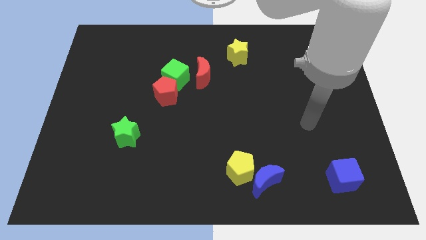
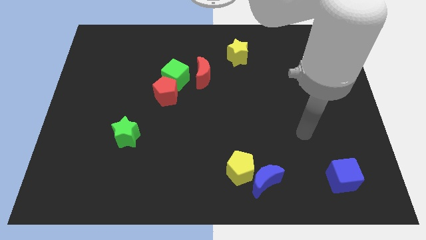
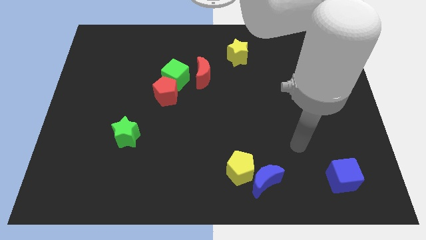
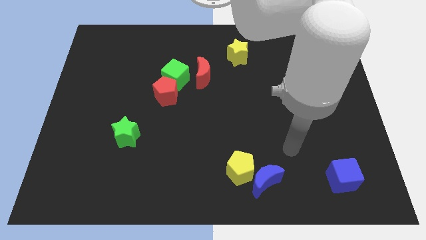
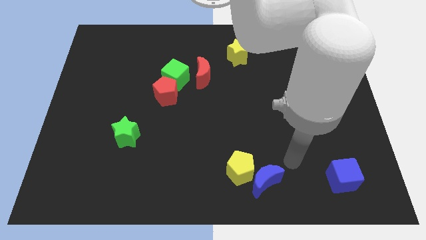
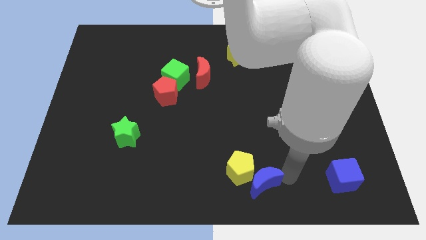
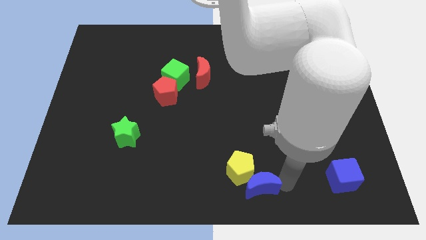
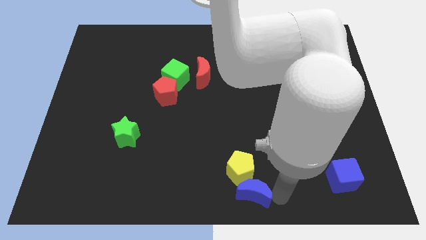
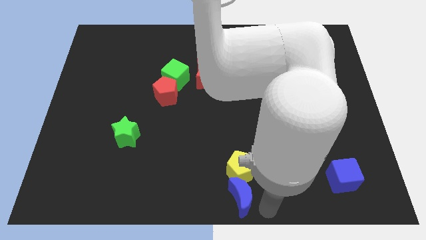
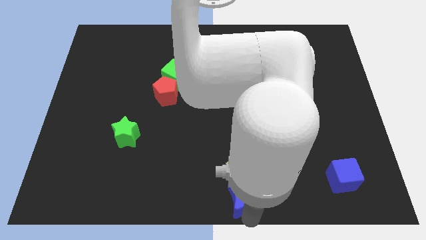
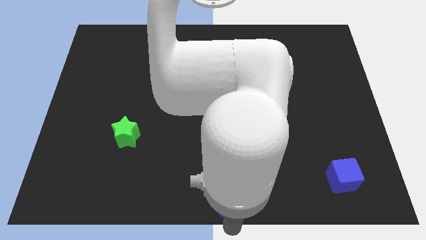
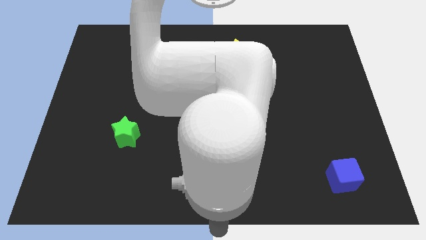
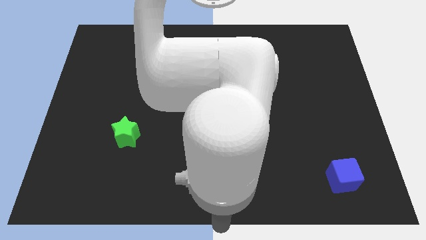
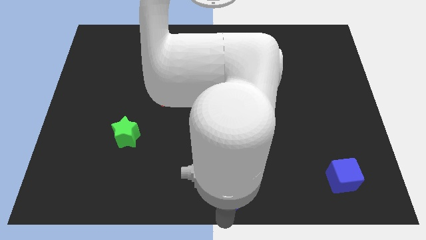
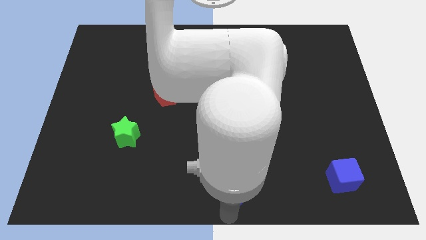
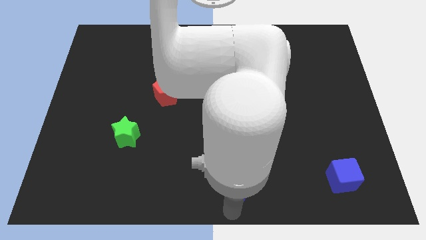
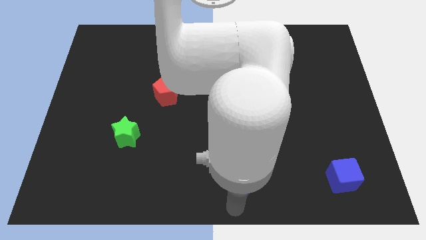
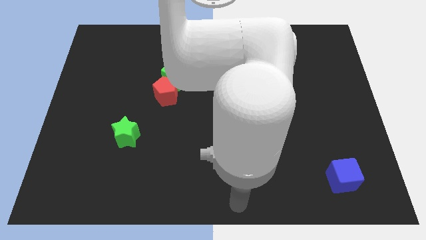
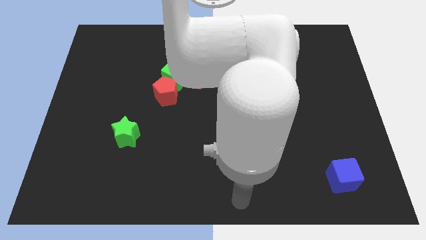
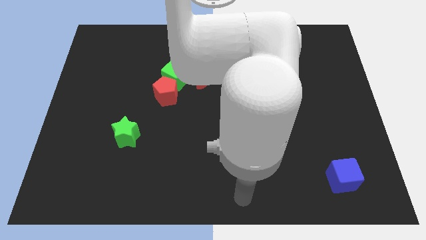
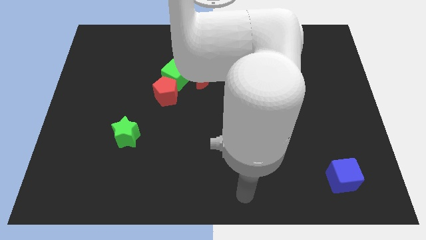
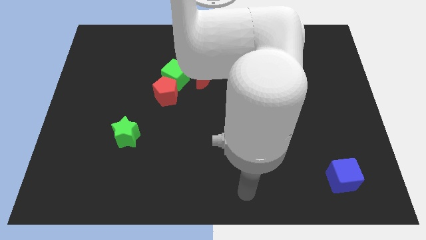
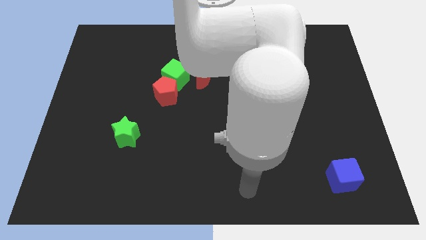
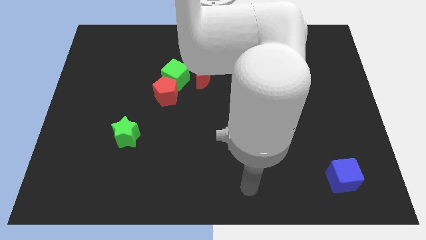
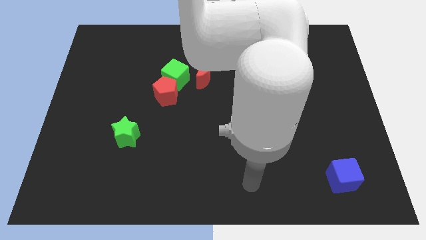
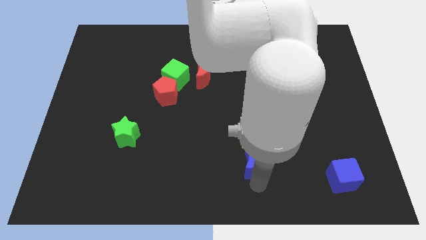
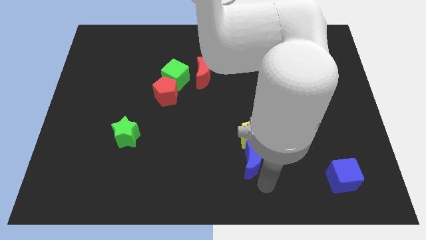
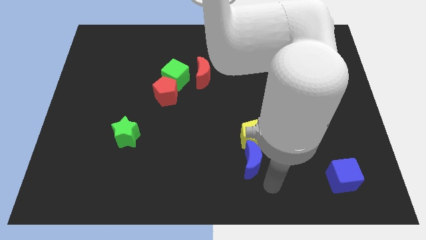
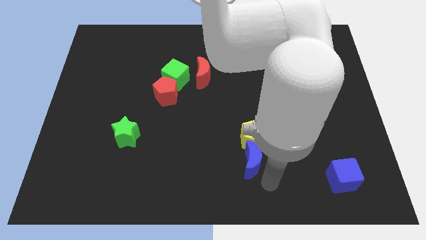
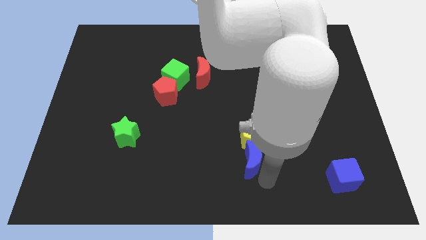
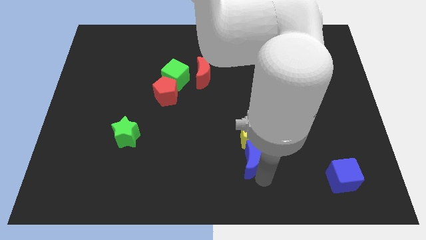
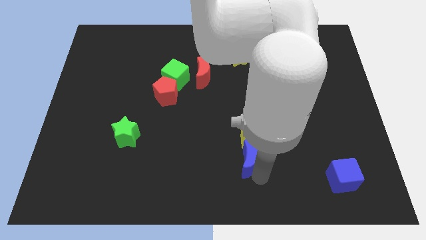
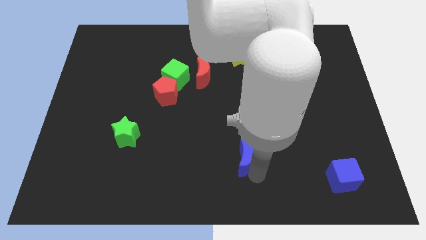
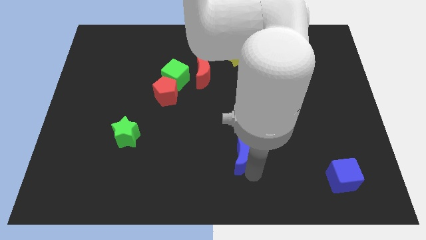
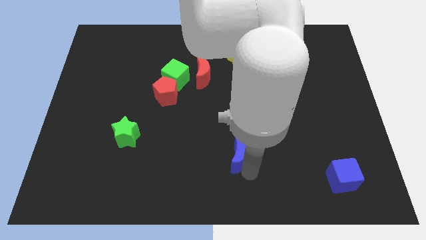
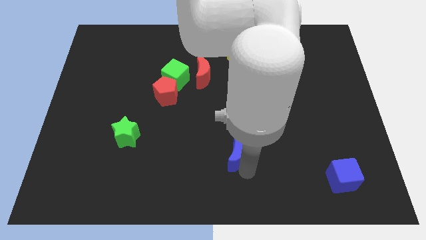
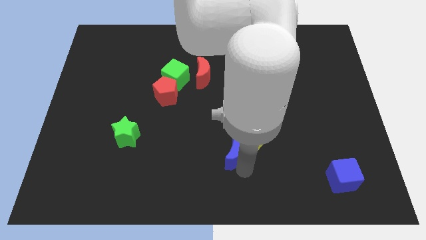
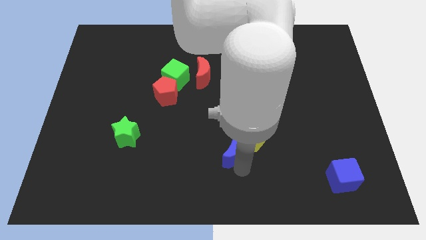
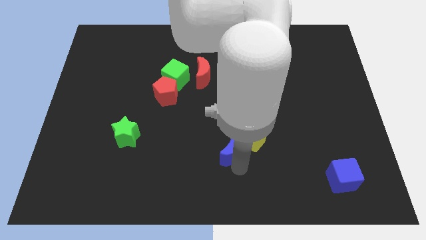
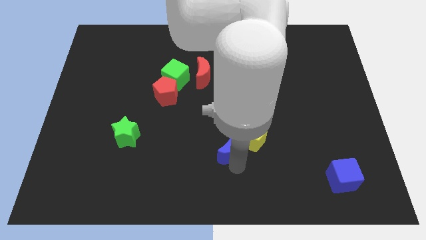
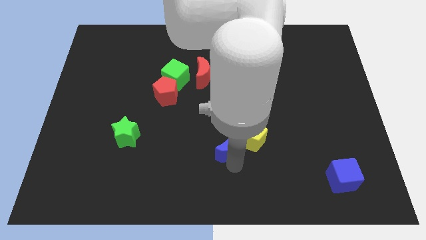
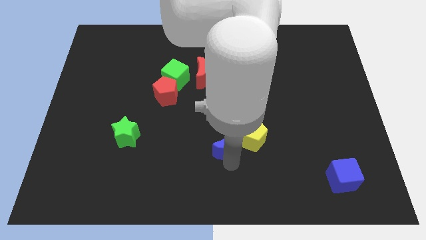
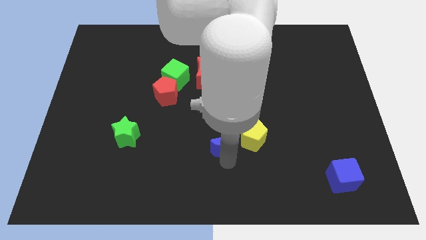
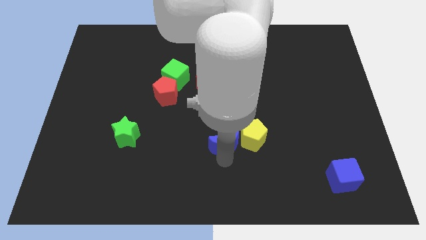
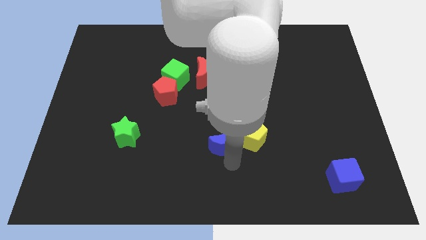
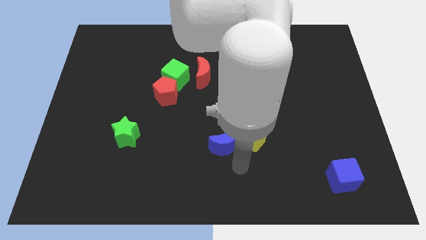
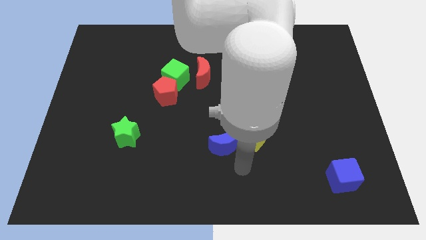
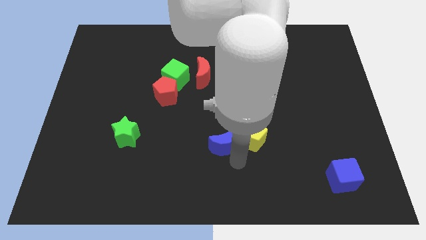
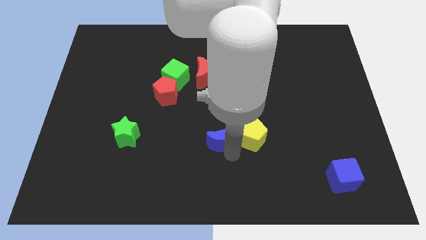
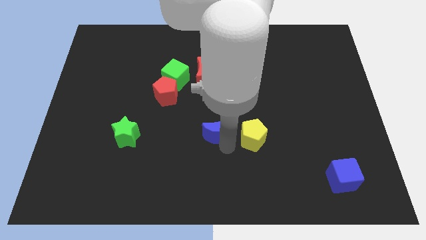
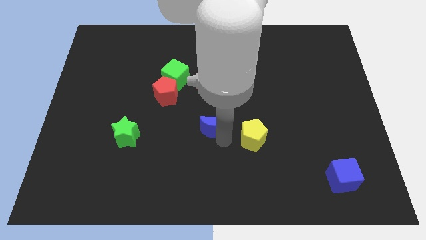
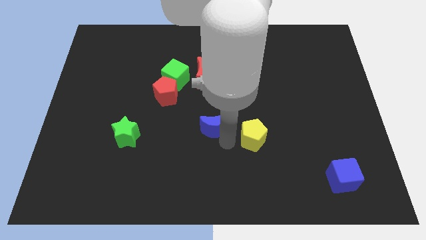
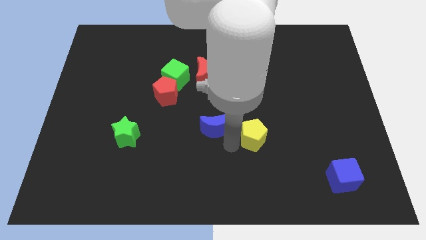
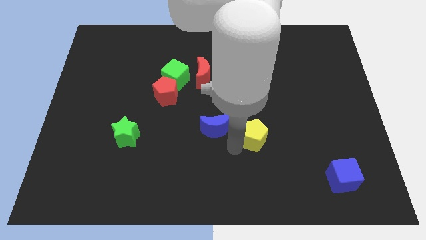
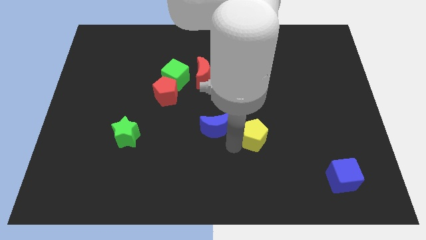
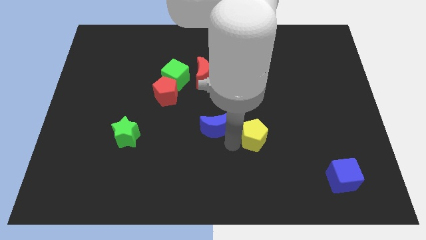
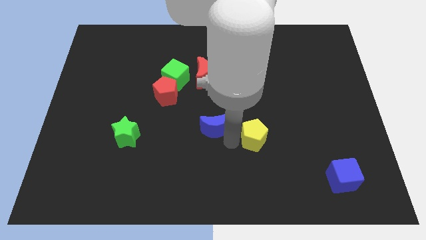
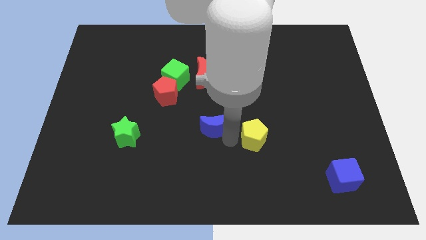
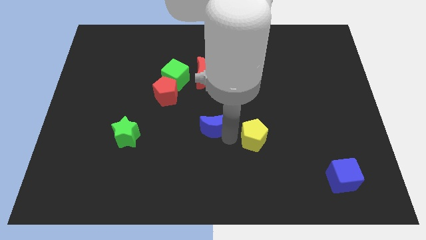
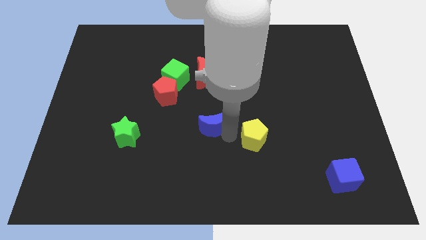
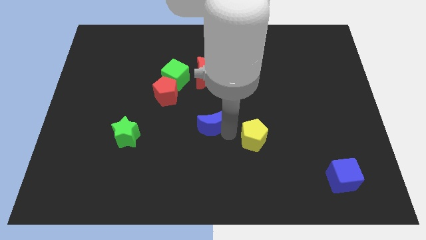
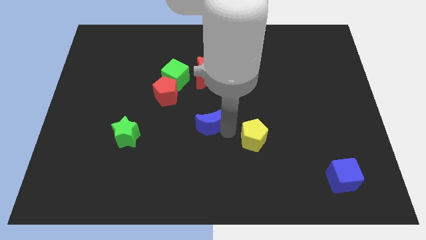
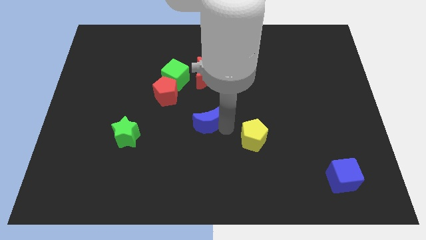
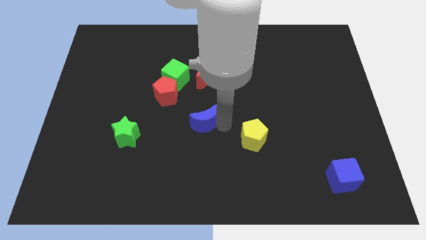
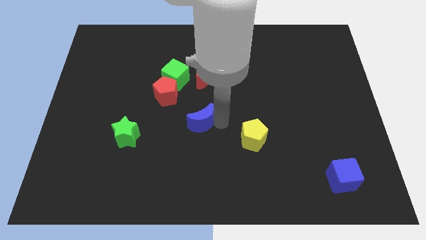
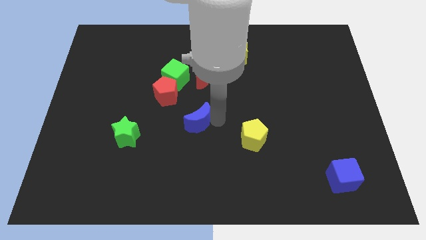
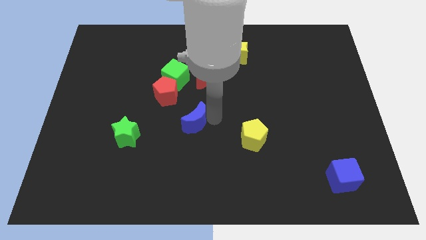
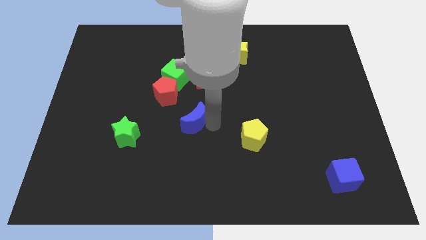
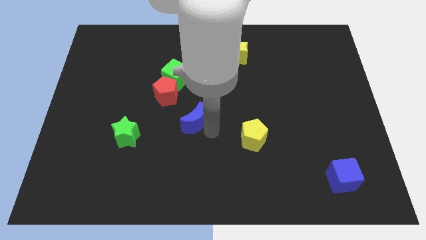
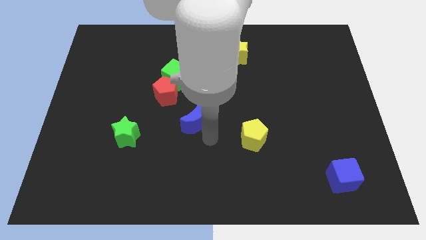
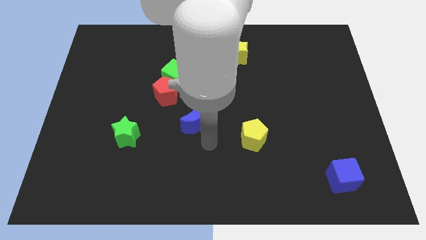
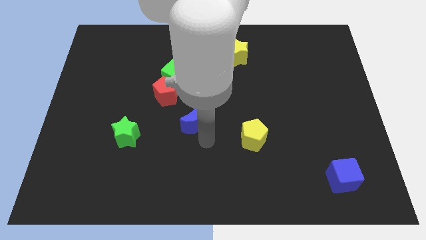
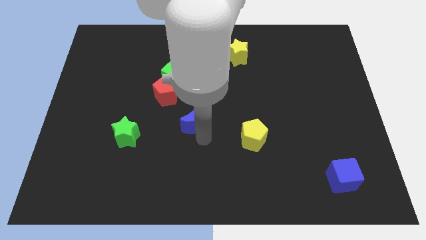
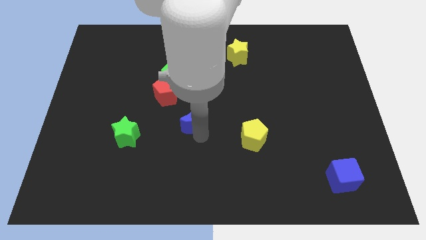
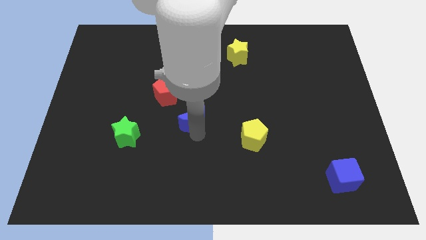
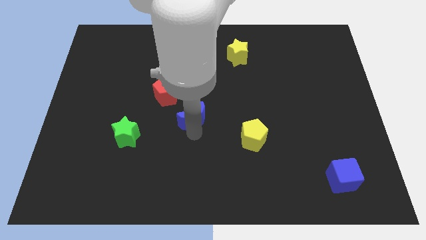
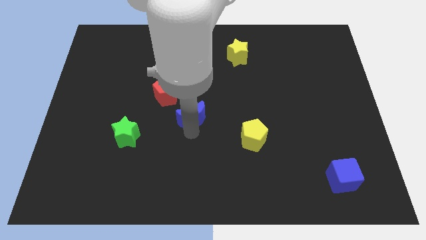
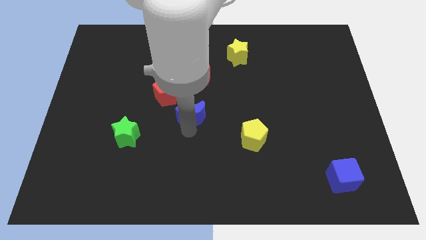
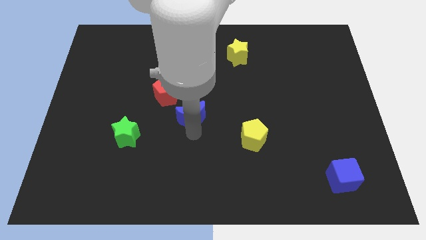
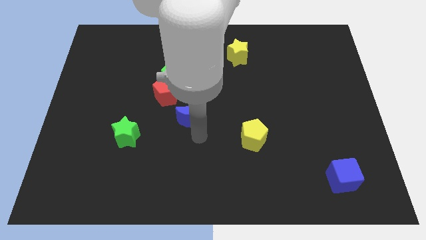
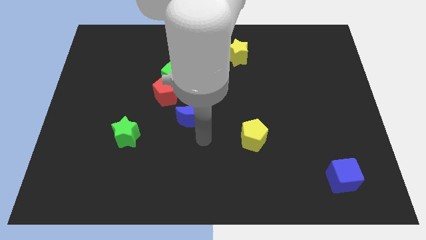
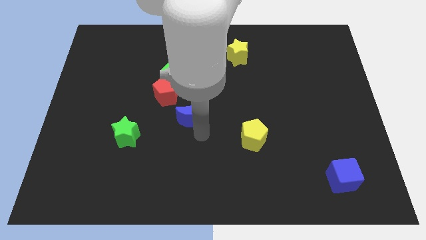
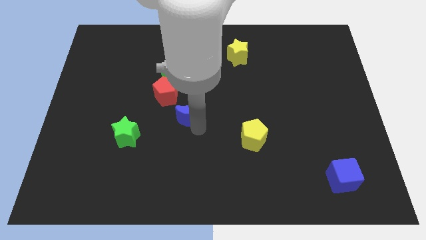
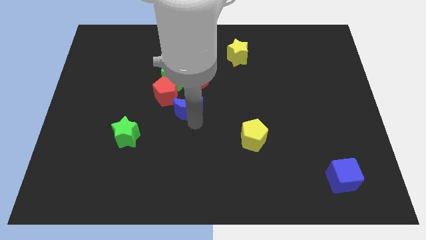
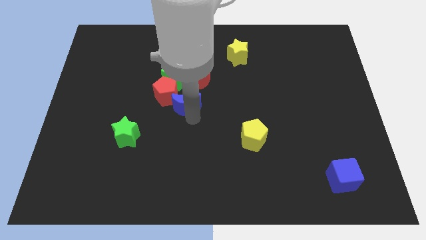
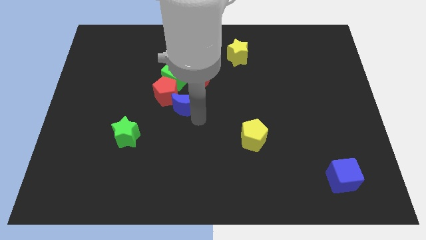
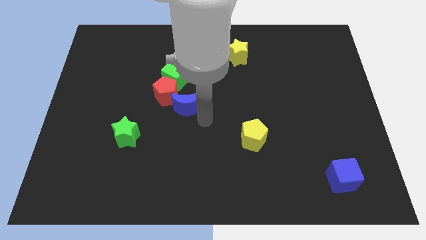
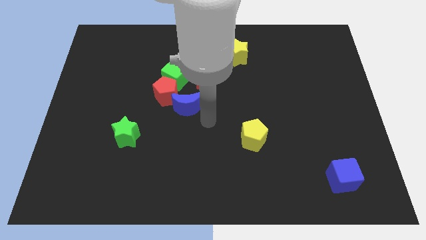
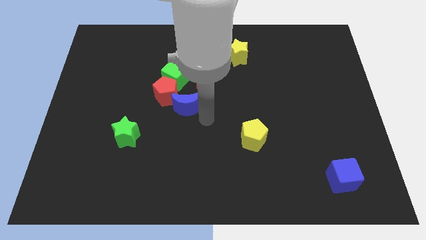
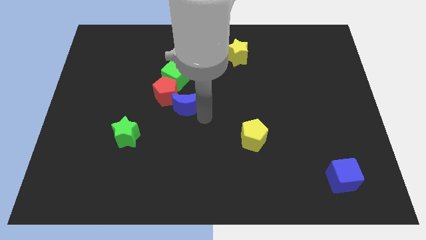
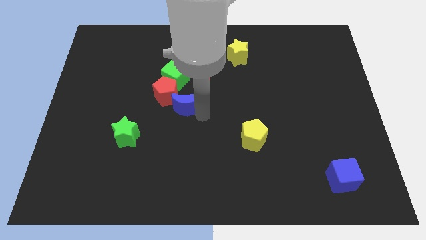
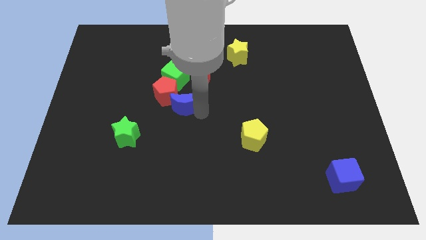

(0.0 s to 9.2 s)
slide the blue moon towards the red pentagon
